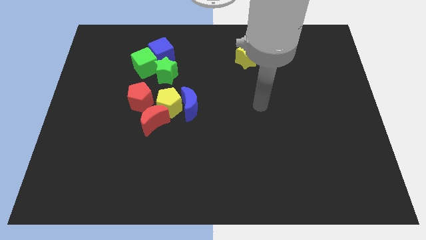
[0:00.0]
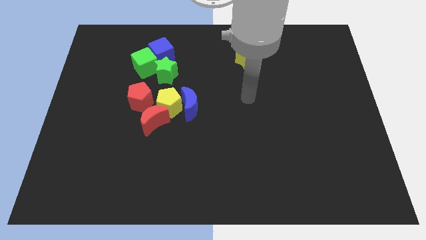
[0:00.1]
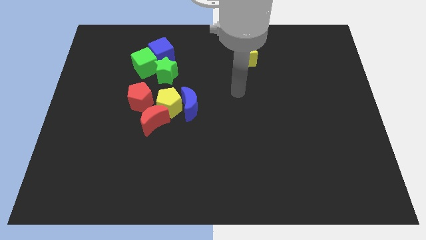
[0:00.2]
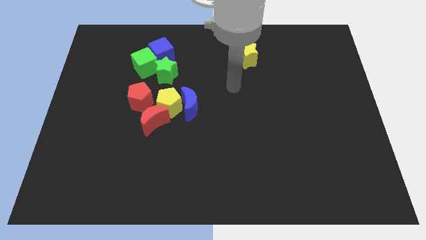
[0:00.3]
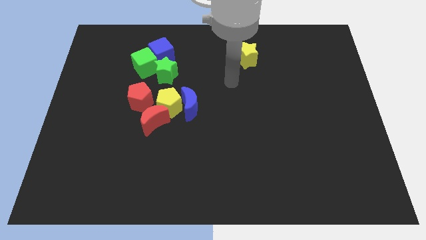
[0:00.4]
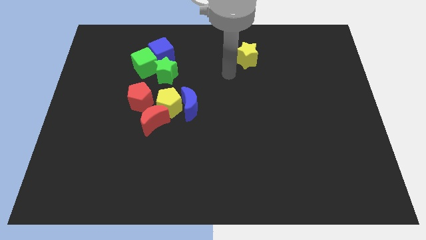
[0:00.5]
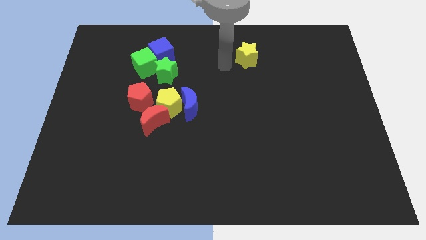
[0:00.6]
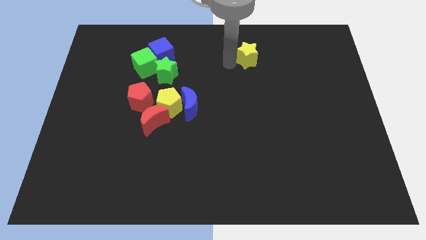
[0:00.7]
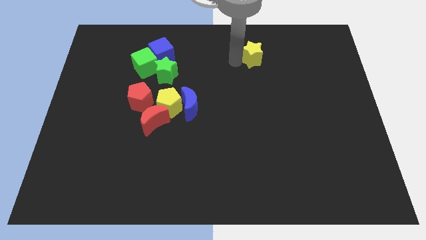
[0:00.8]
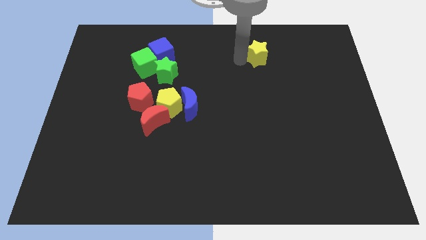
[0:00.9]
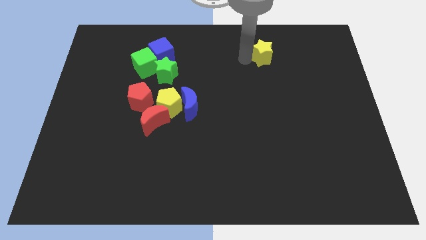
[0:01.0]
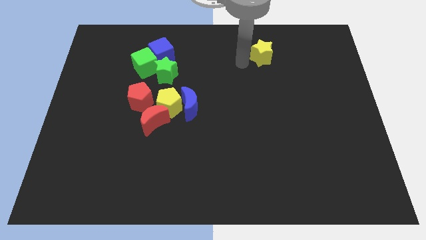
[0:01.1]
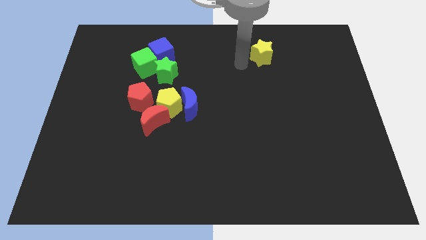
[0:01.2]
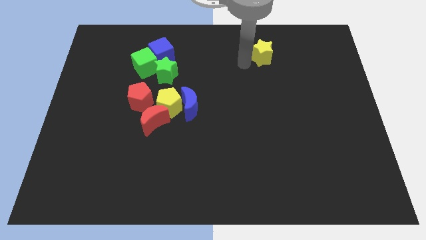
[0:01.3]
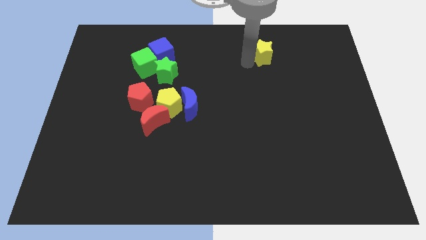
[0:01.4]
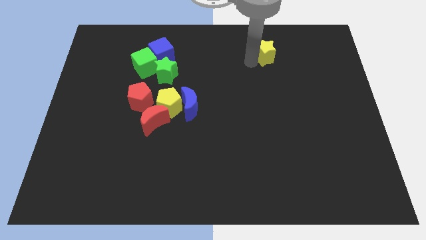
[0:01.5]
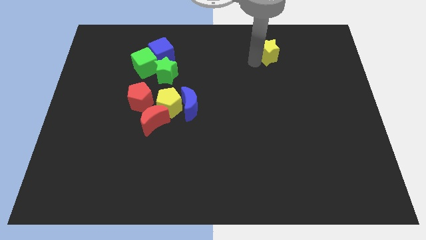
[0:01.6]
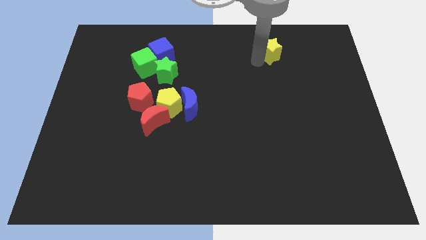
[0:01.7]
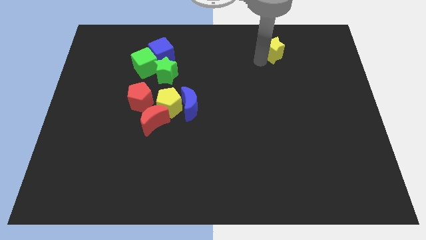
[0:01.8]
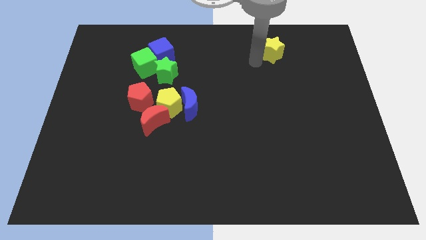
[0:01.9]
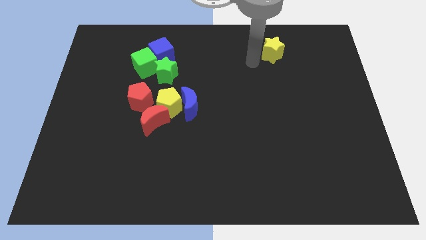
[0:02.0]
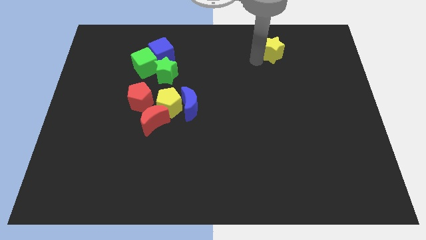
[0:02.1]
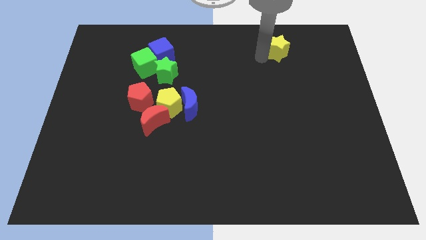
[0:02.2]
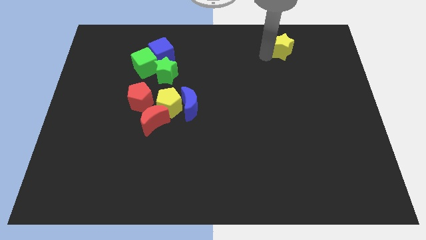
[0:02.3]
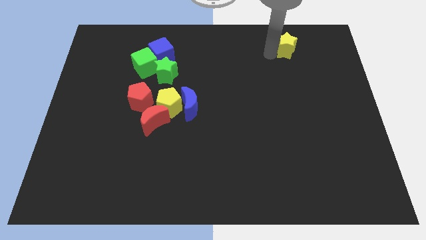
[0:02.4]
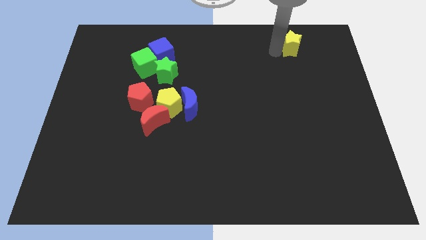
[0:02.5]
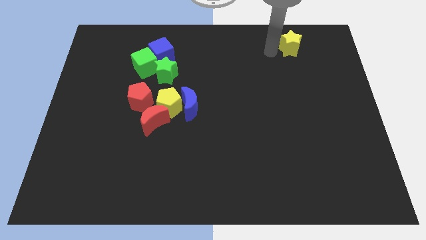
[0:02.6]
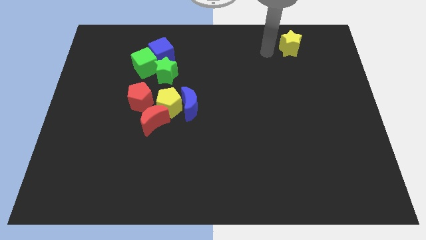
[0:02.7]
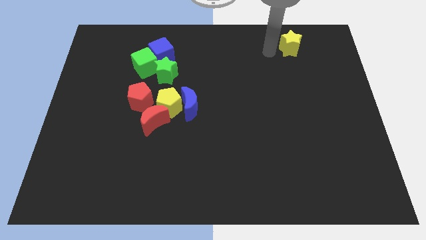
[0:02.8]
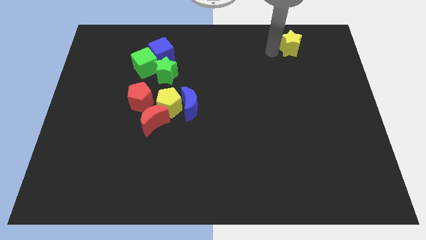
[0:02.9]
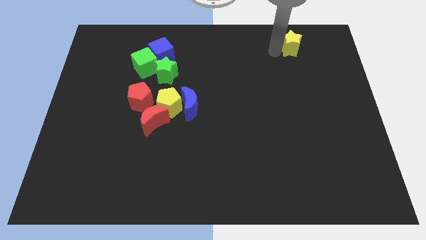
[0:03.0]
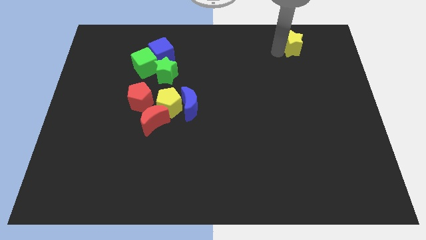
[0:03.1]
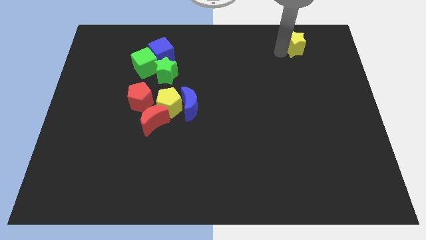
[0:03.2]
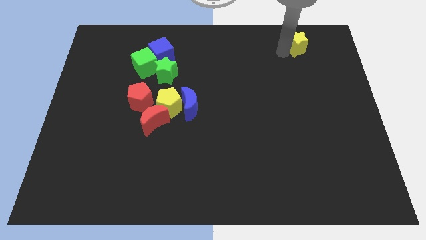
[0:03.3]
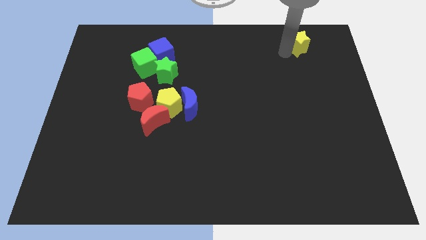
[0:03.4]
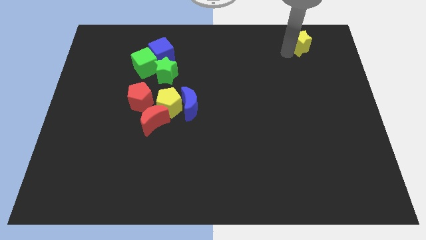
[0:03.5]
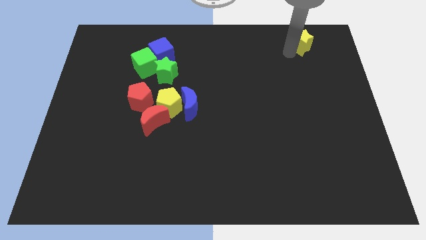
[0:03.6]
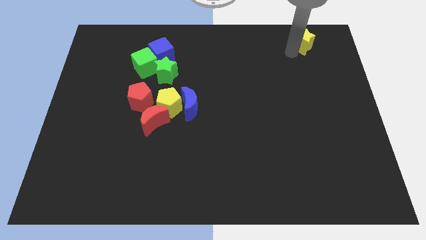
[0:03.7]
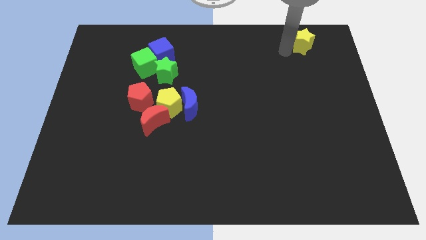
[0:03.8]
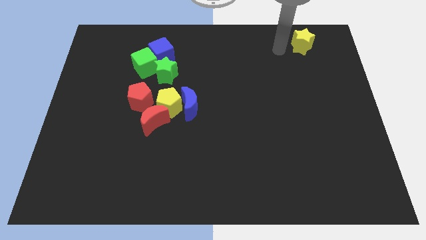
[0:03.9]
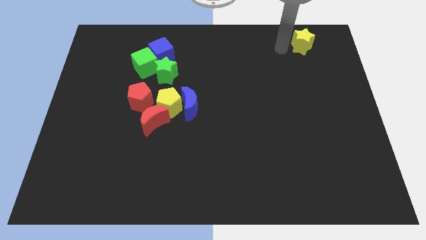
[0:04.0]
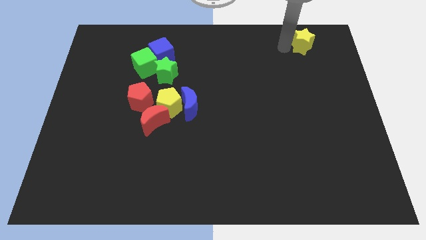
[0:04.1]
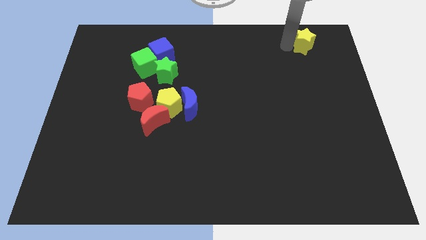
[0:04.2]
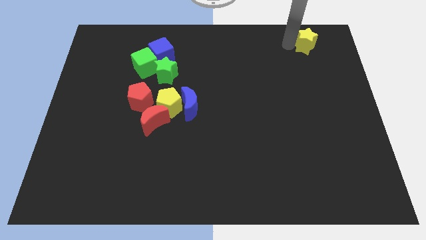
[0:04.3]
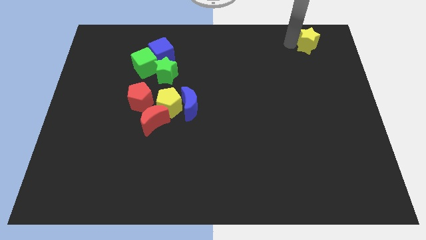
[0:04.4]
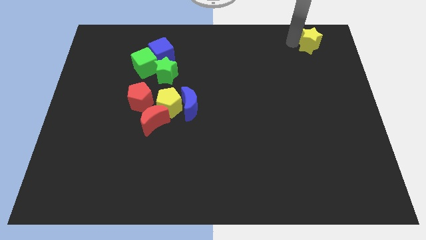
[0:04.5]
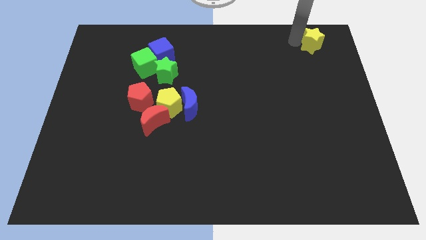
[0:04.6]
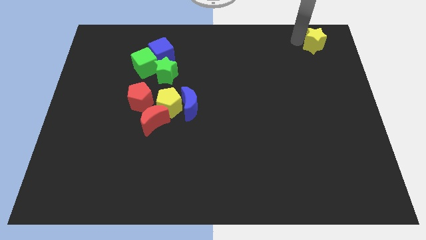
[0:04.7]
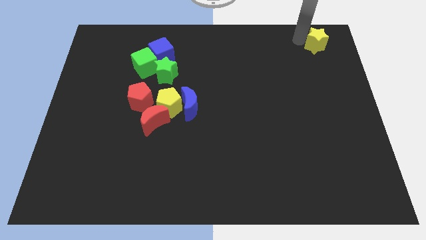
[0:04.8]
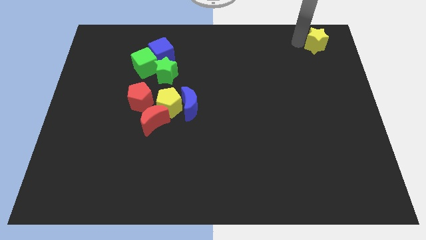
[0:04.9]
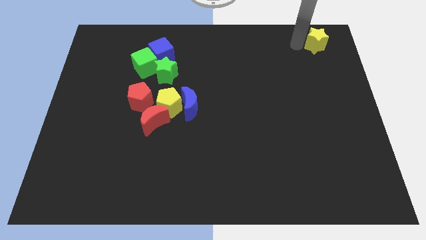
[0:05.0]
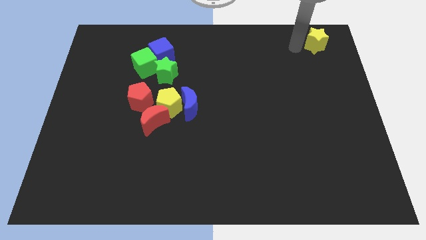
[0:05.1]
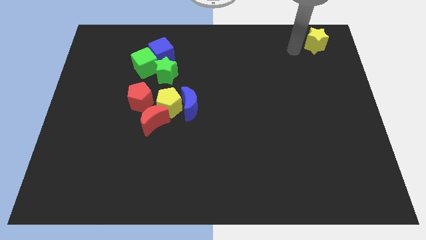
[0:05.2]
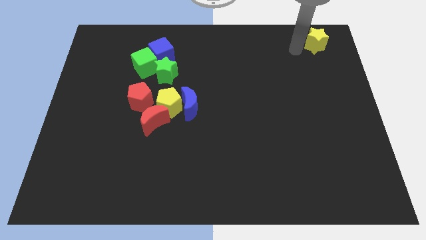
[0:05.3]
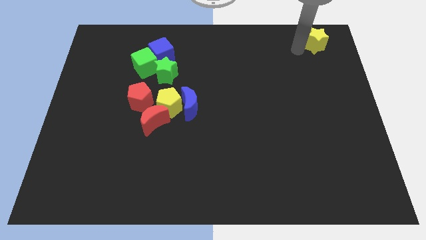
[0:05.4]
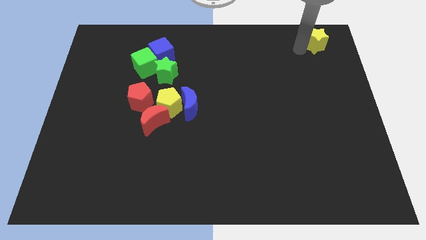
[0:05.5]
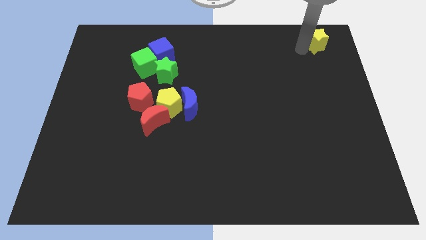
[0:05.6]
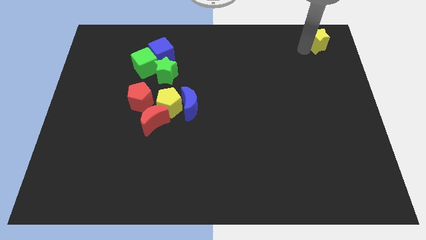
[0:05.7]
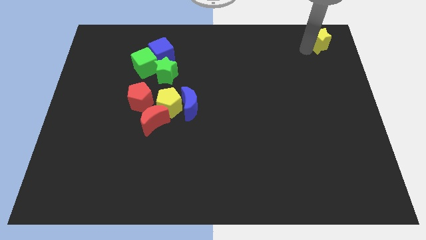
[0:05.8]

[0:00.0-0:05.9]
slide the yellow star to the top right corner
